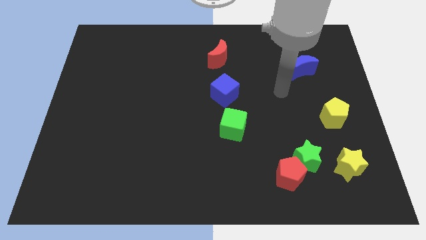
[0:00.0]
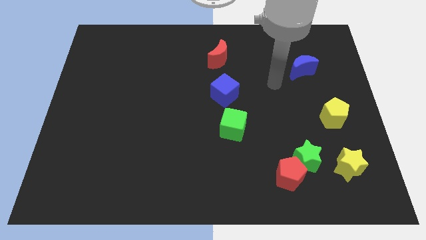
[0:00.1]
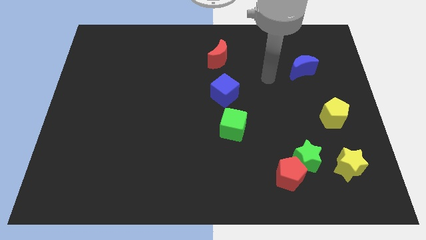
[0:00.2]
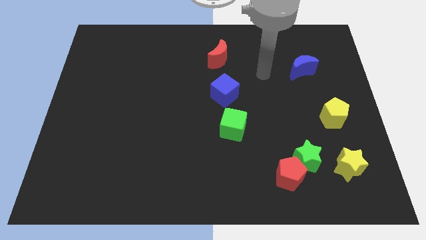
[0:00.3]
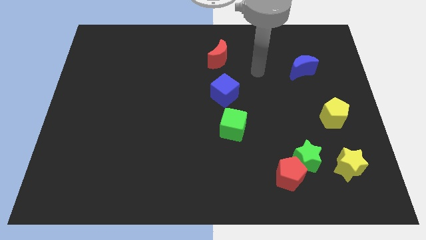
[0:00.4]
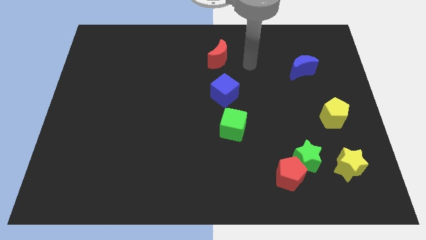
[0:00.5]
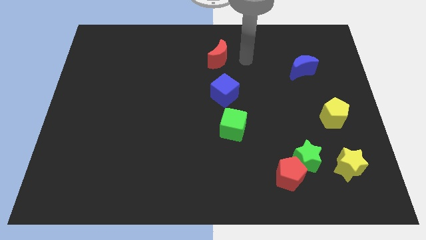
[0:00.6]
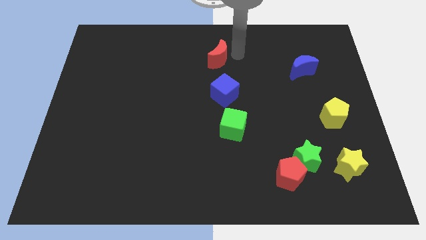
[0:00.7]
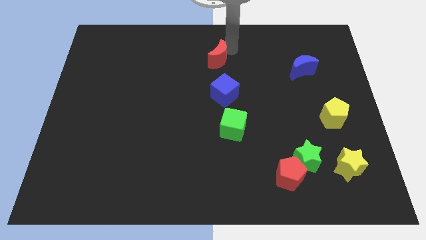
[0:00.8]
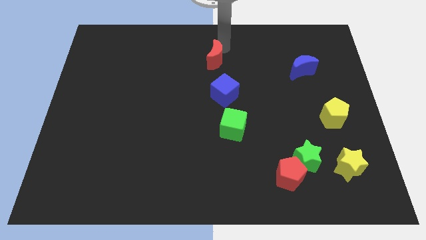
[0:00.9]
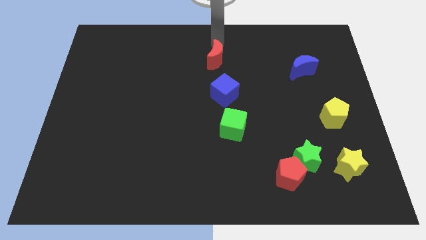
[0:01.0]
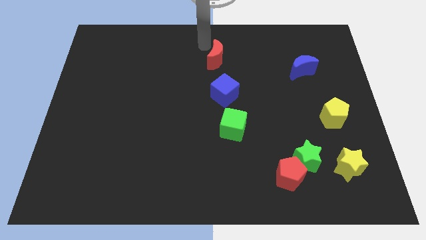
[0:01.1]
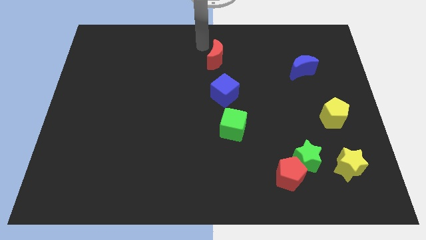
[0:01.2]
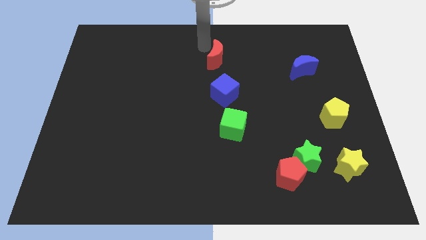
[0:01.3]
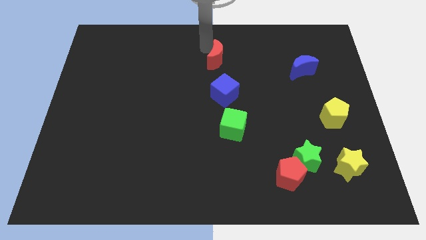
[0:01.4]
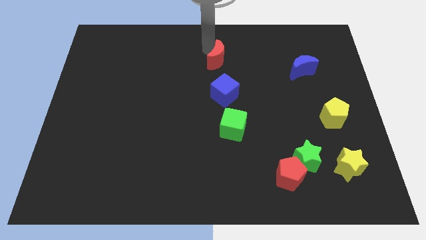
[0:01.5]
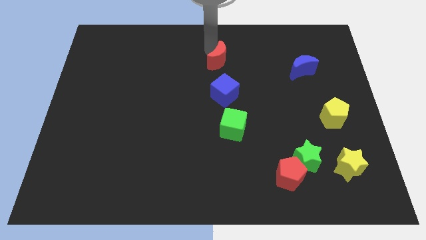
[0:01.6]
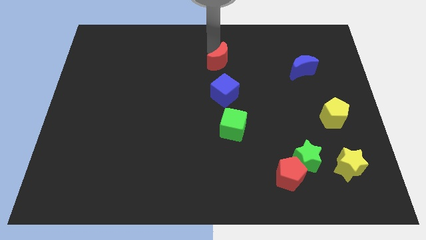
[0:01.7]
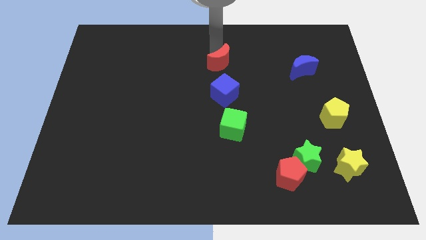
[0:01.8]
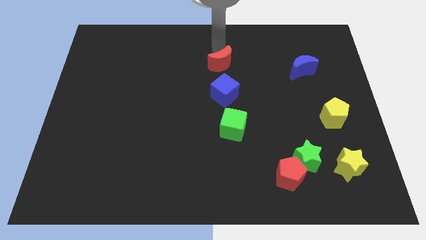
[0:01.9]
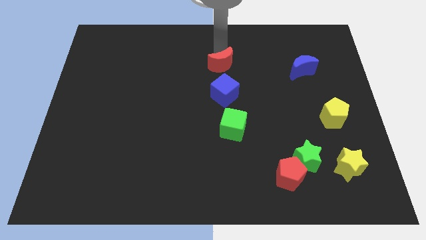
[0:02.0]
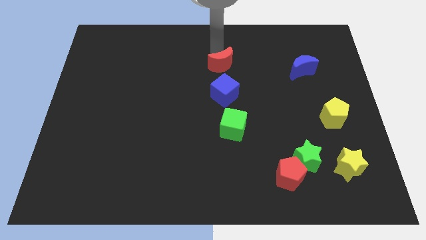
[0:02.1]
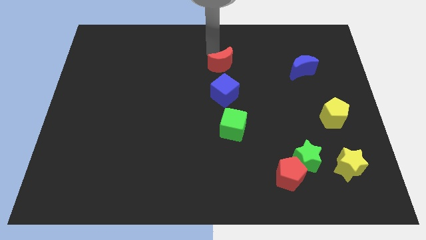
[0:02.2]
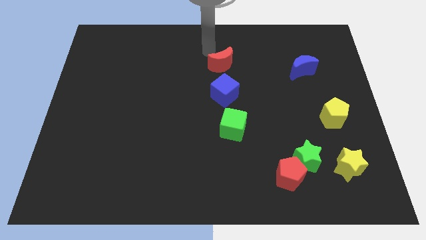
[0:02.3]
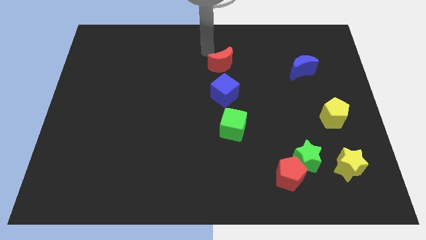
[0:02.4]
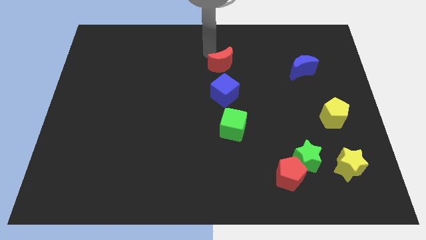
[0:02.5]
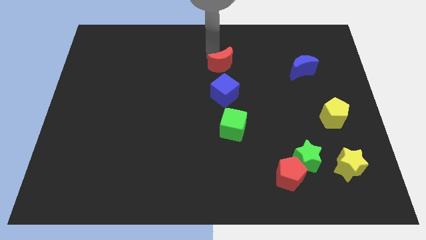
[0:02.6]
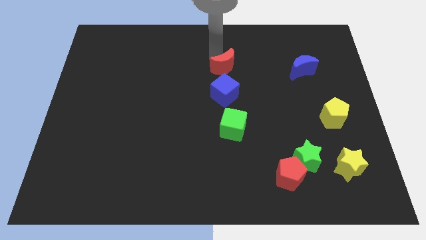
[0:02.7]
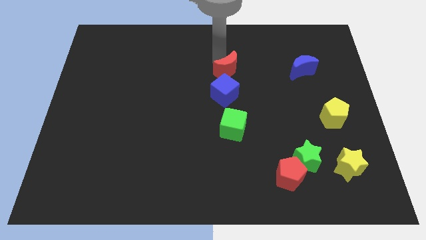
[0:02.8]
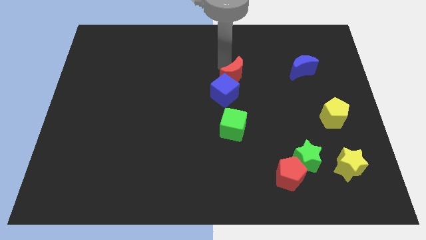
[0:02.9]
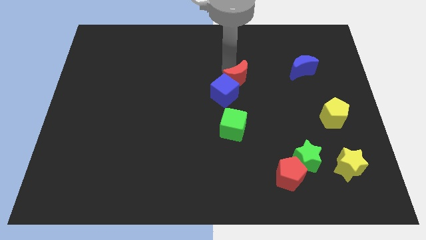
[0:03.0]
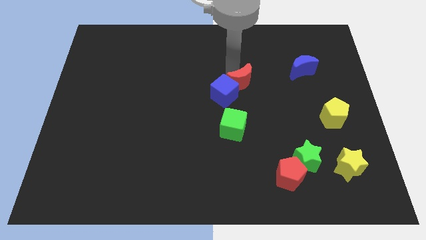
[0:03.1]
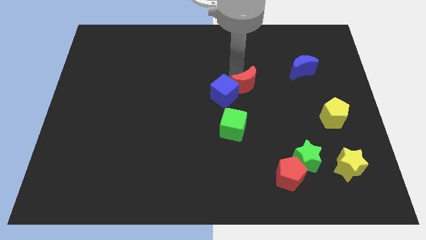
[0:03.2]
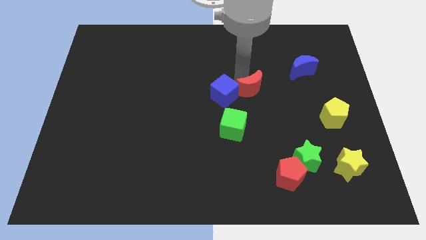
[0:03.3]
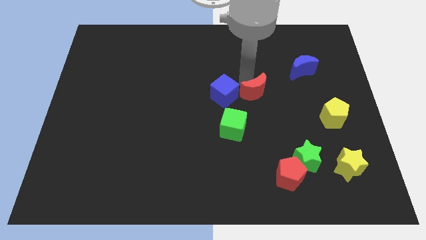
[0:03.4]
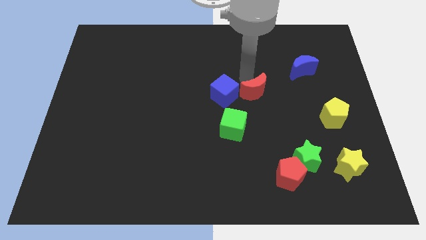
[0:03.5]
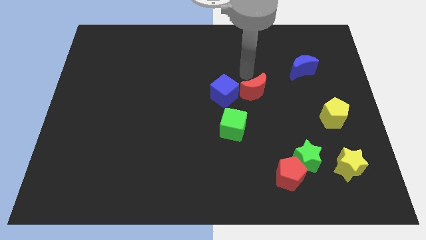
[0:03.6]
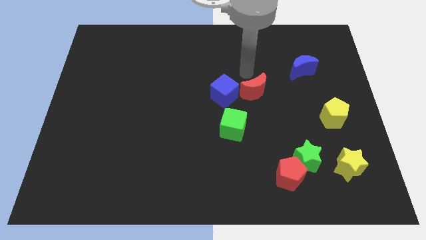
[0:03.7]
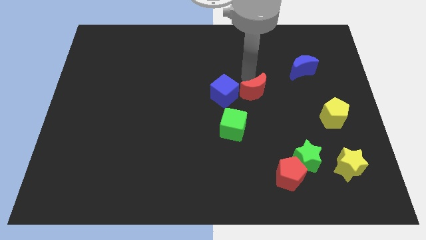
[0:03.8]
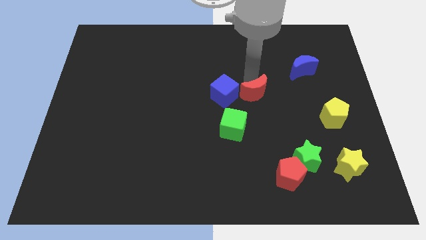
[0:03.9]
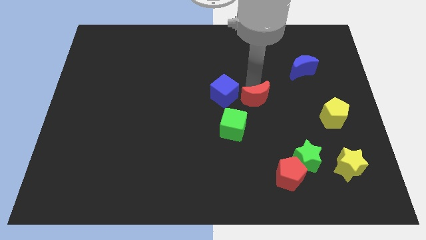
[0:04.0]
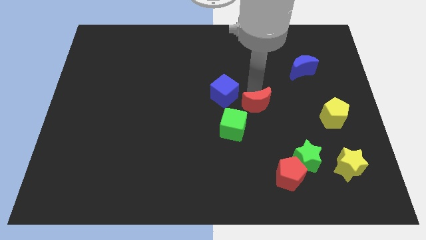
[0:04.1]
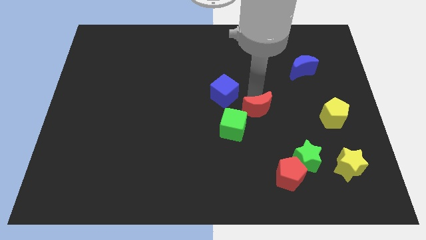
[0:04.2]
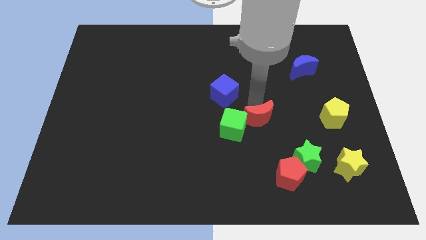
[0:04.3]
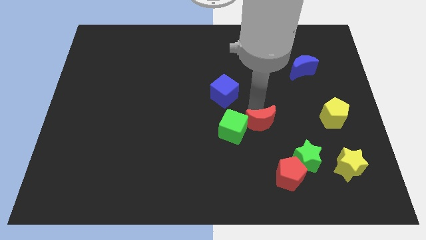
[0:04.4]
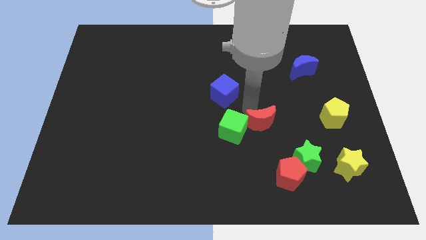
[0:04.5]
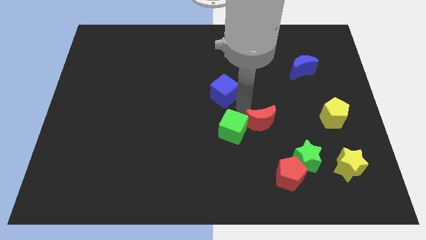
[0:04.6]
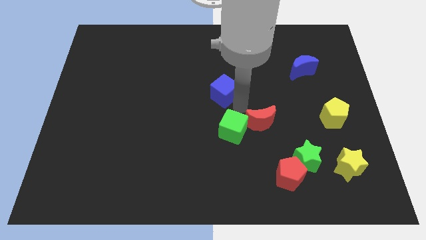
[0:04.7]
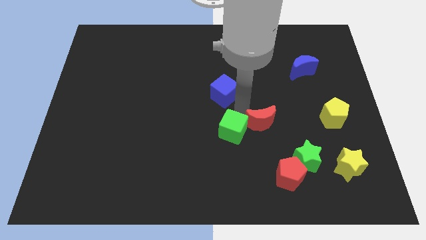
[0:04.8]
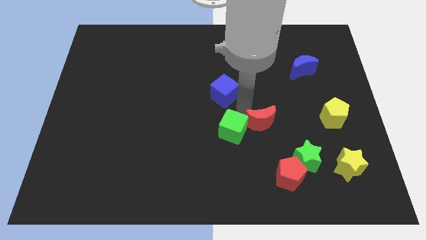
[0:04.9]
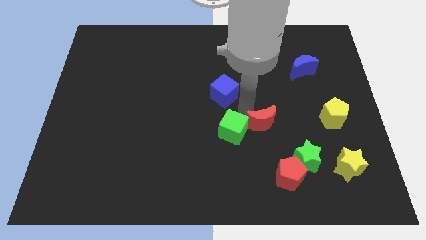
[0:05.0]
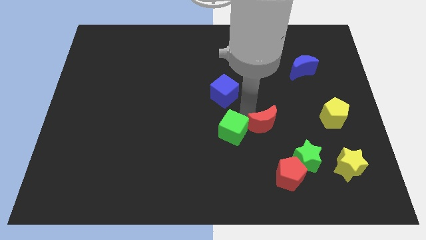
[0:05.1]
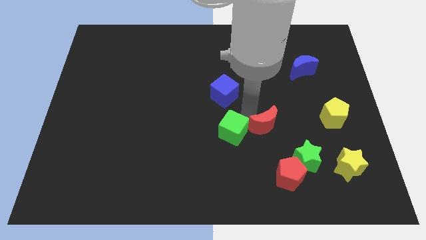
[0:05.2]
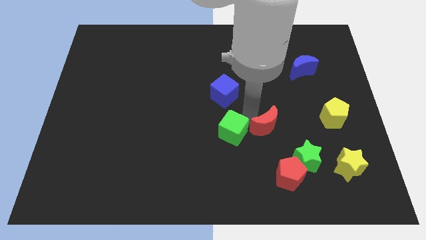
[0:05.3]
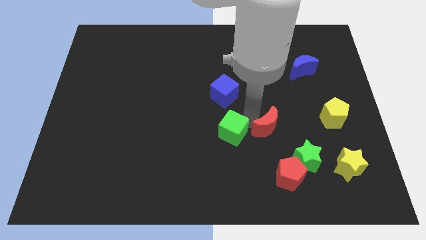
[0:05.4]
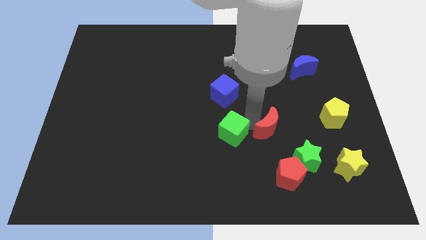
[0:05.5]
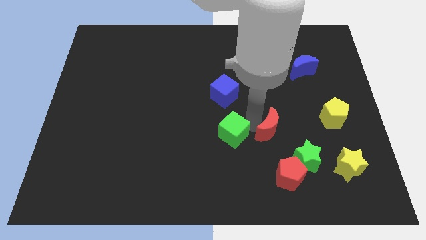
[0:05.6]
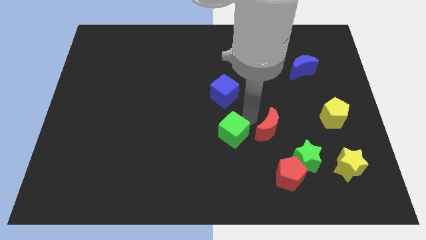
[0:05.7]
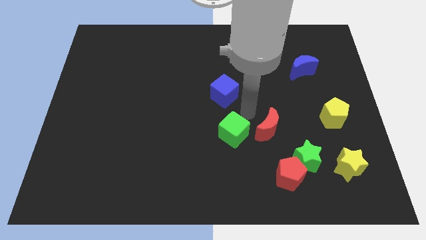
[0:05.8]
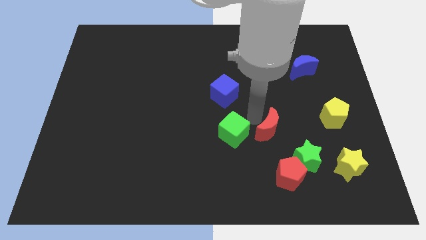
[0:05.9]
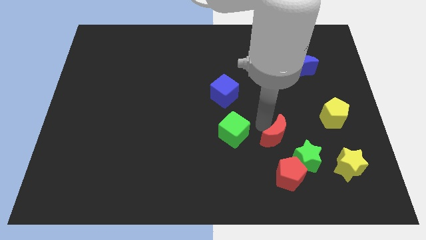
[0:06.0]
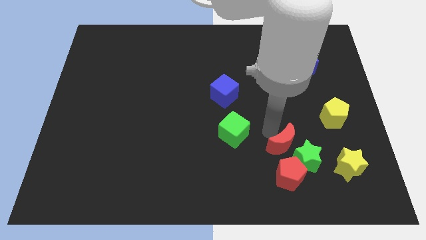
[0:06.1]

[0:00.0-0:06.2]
put the red moon towards the green star

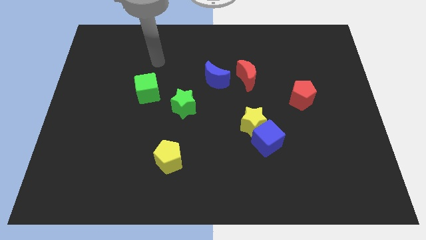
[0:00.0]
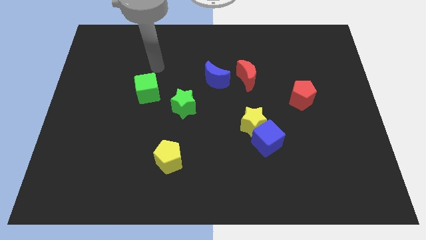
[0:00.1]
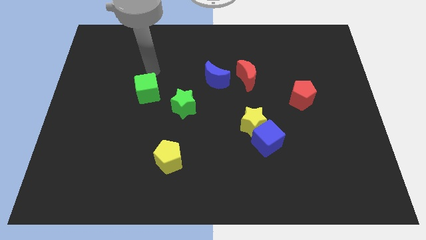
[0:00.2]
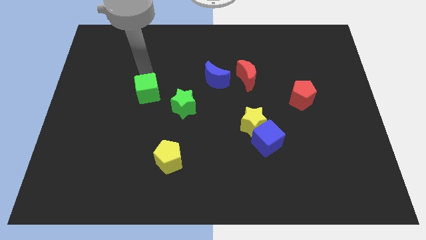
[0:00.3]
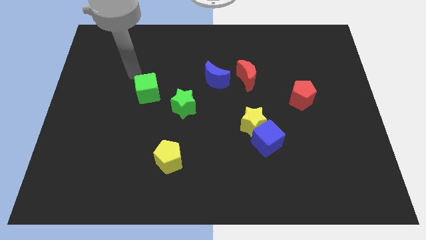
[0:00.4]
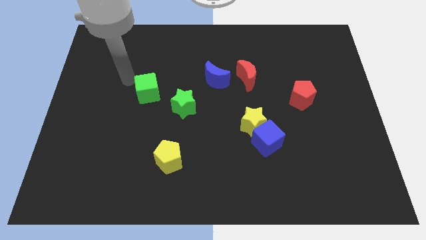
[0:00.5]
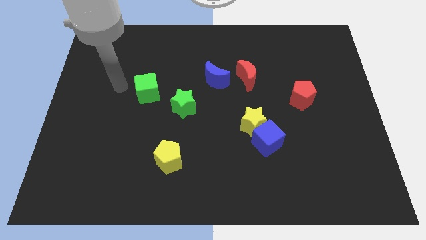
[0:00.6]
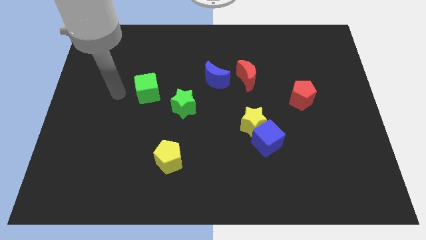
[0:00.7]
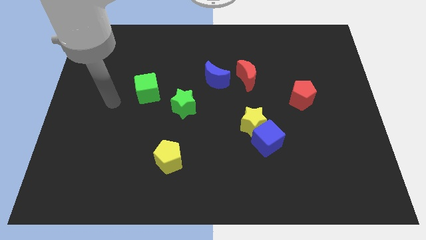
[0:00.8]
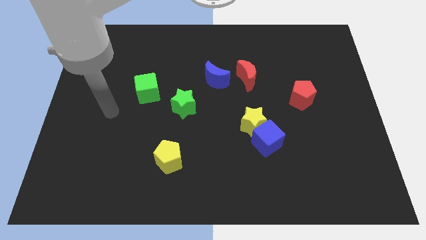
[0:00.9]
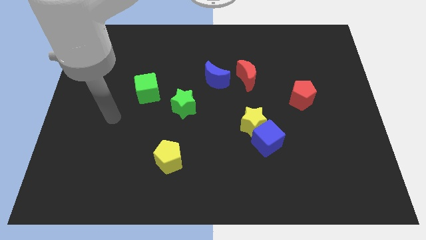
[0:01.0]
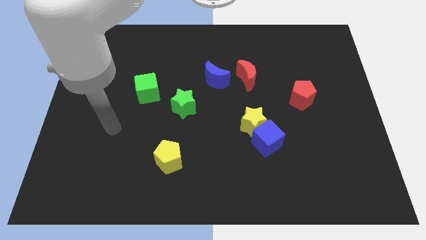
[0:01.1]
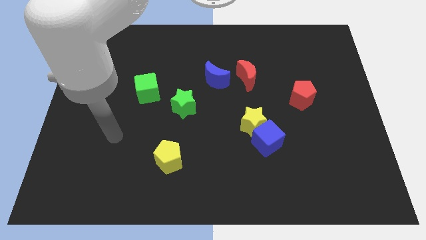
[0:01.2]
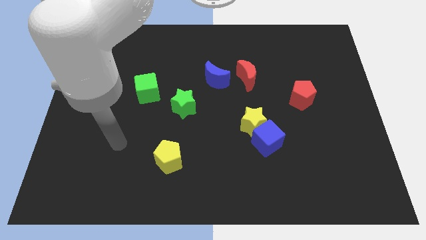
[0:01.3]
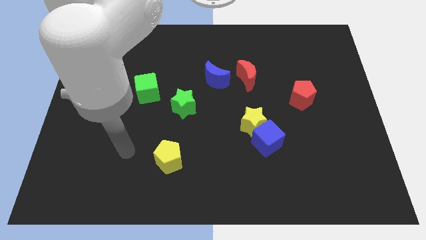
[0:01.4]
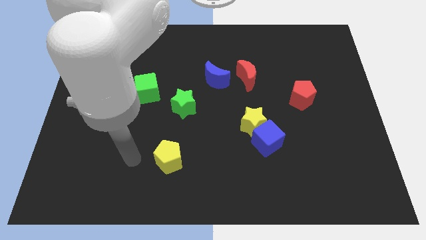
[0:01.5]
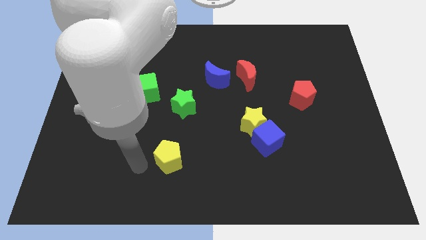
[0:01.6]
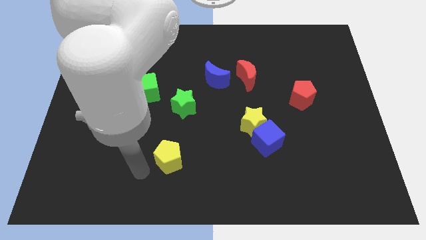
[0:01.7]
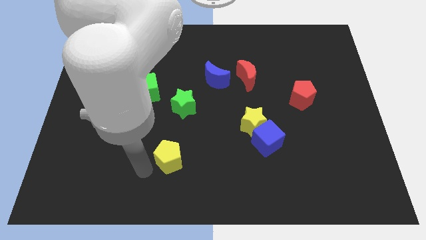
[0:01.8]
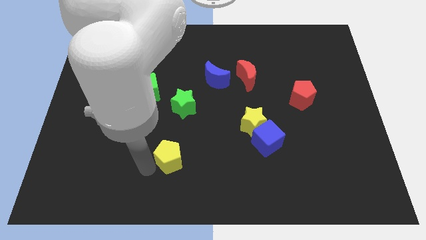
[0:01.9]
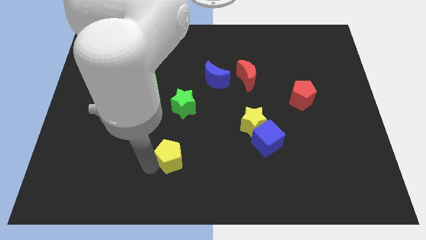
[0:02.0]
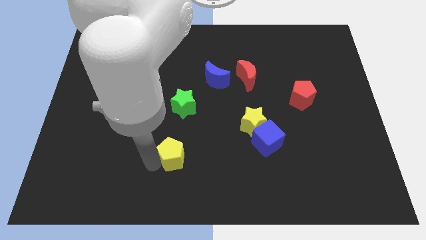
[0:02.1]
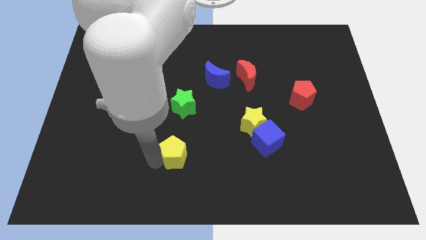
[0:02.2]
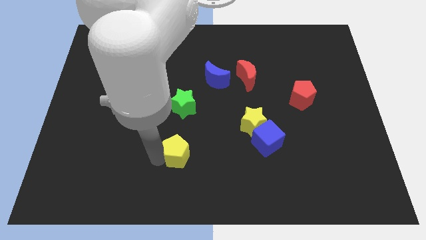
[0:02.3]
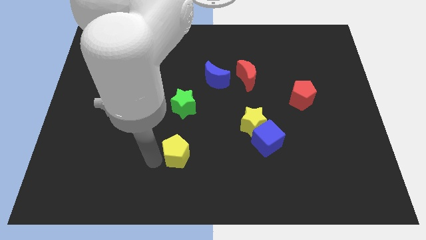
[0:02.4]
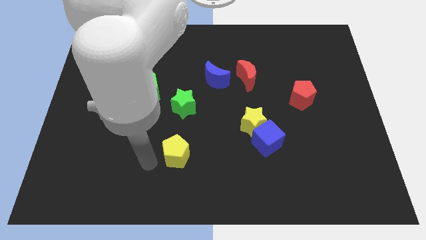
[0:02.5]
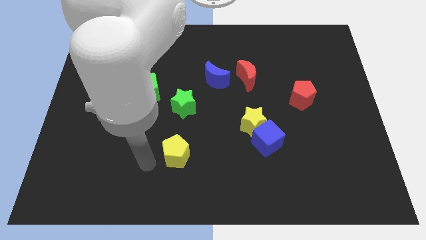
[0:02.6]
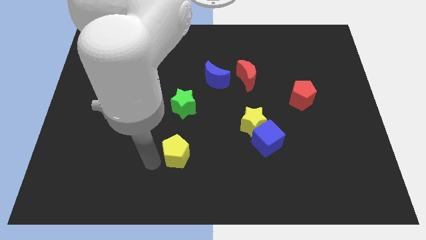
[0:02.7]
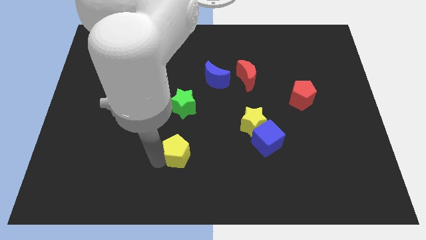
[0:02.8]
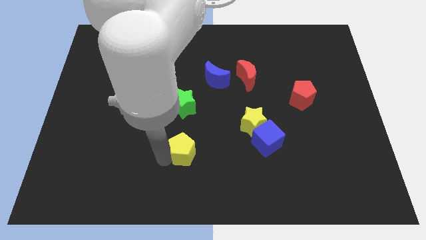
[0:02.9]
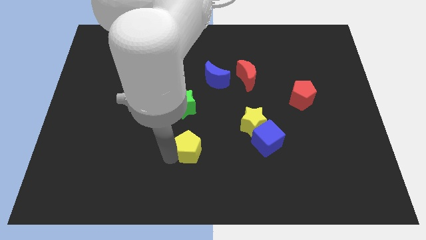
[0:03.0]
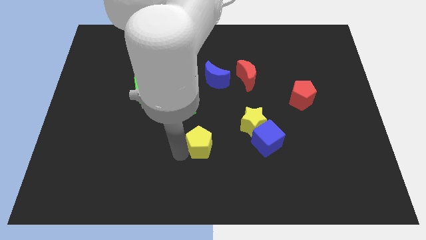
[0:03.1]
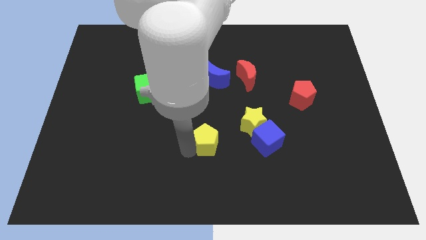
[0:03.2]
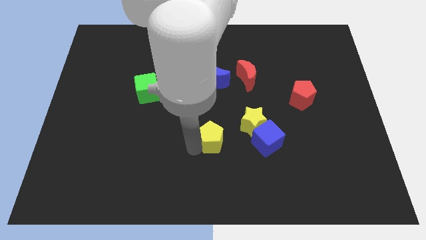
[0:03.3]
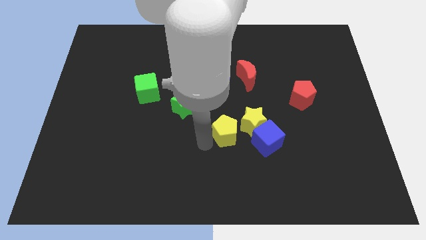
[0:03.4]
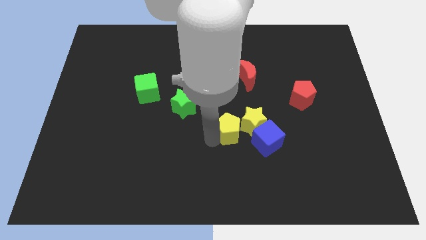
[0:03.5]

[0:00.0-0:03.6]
move the yellow pentagon towards the yellow star
